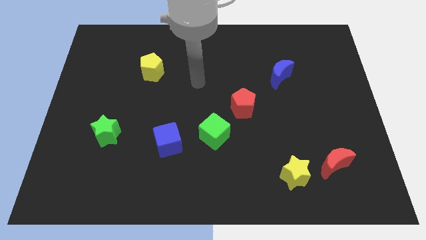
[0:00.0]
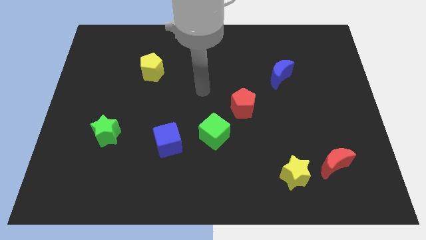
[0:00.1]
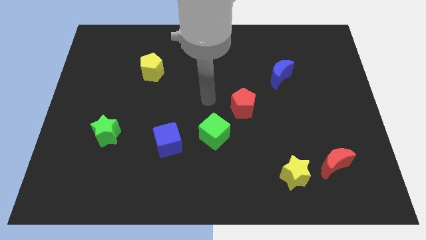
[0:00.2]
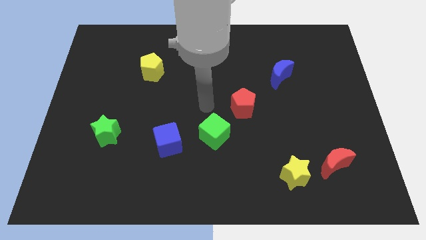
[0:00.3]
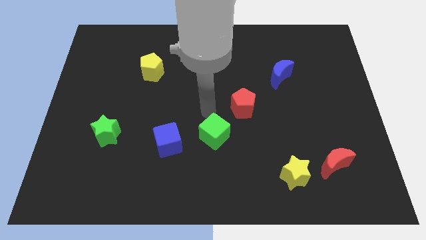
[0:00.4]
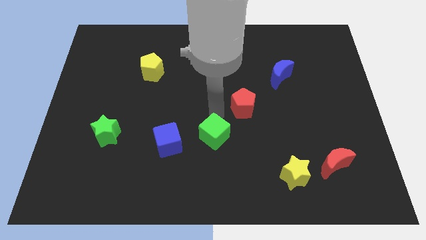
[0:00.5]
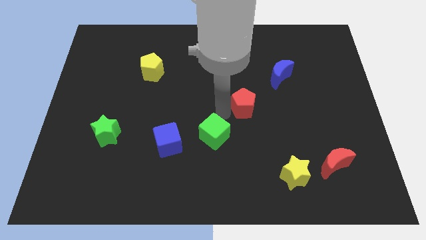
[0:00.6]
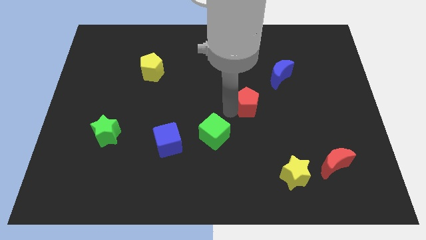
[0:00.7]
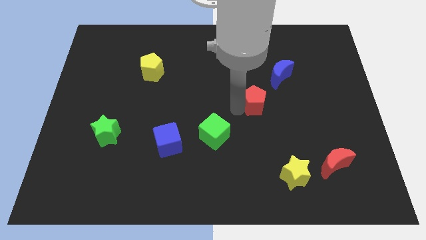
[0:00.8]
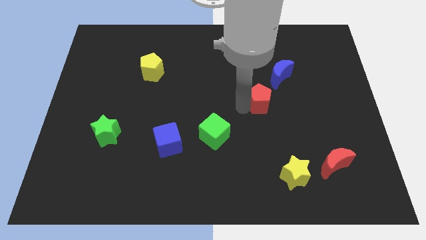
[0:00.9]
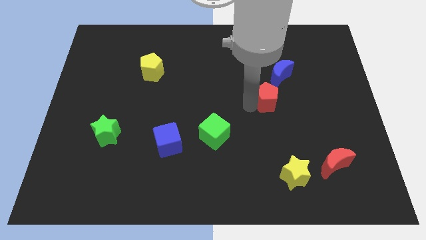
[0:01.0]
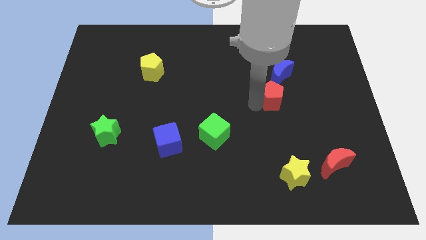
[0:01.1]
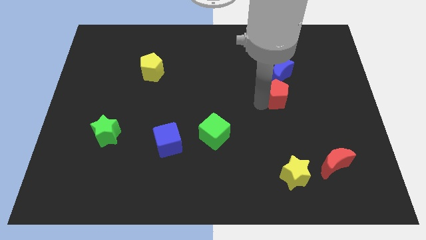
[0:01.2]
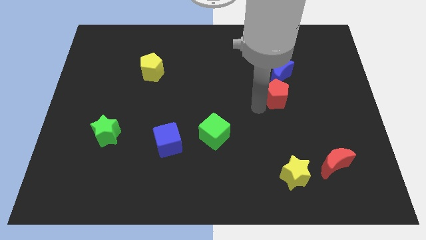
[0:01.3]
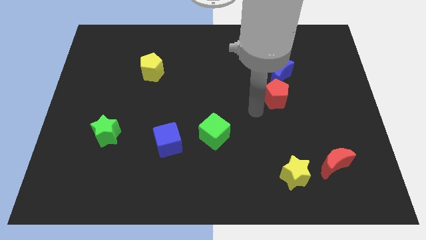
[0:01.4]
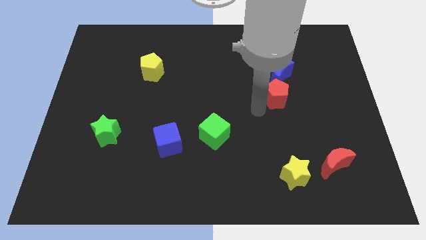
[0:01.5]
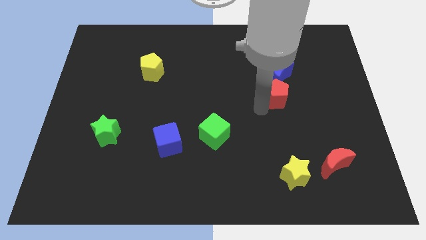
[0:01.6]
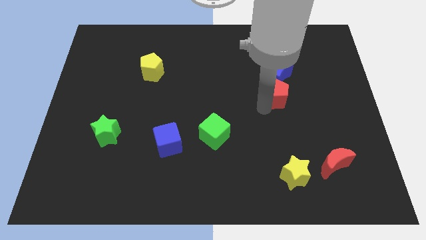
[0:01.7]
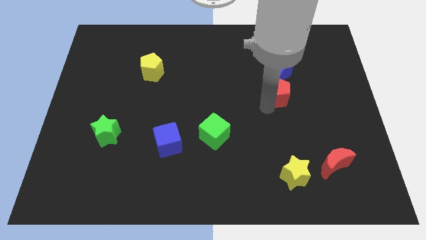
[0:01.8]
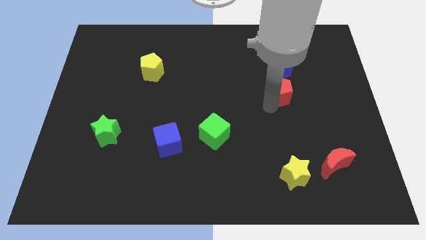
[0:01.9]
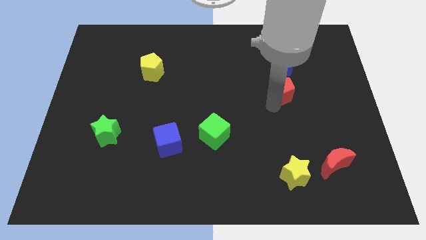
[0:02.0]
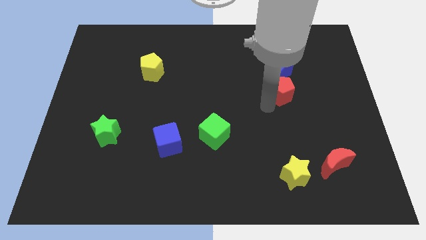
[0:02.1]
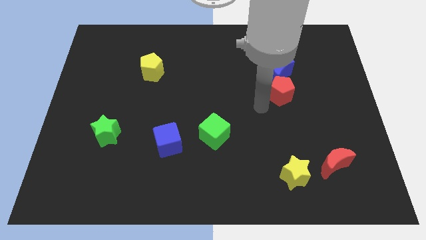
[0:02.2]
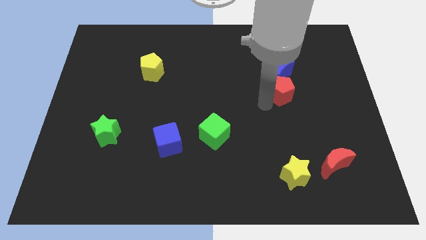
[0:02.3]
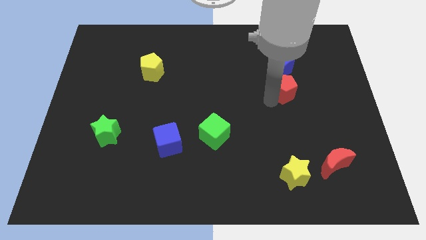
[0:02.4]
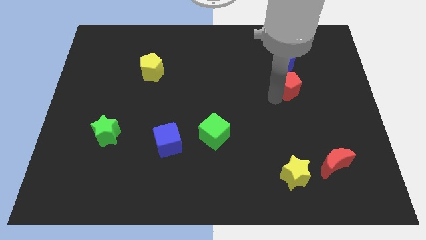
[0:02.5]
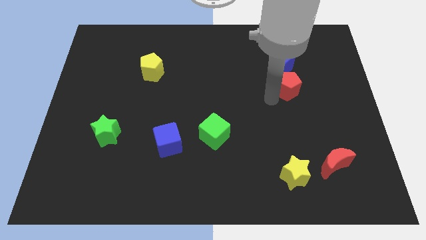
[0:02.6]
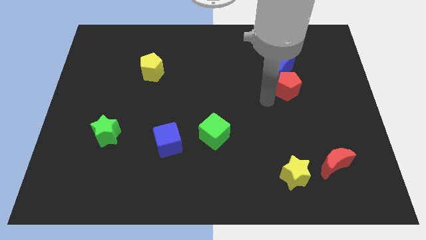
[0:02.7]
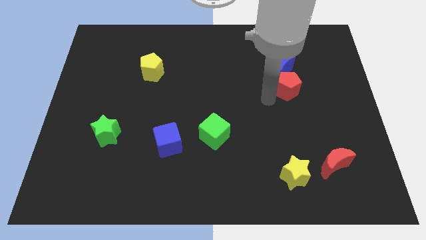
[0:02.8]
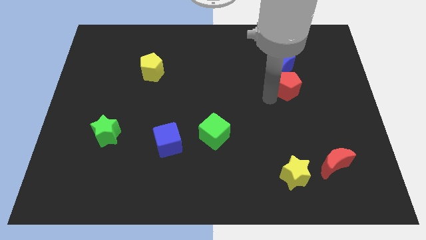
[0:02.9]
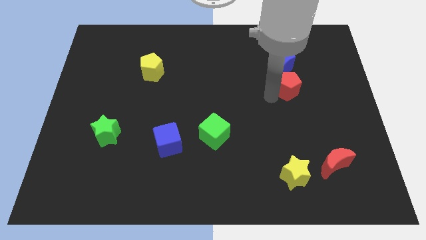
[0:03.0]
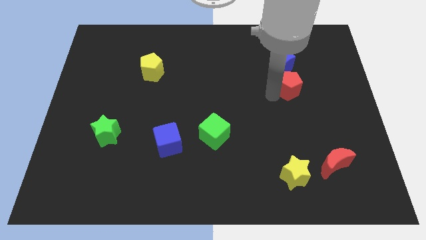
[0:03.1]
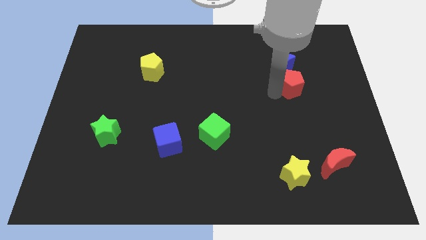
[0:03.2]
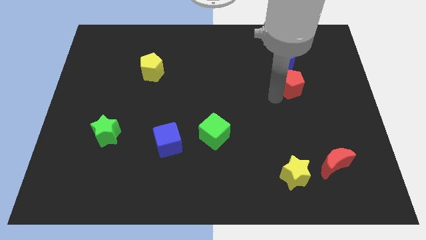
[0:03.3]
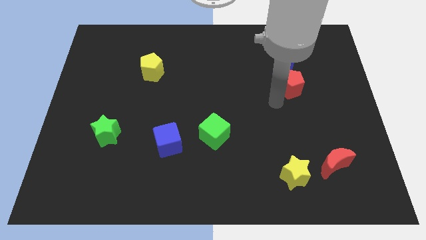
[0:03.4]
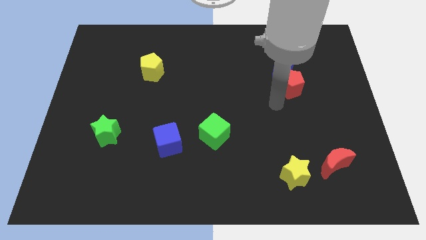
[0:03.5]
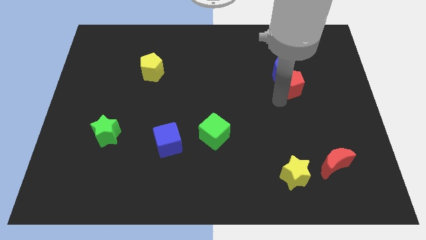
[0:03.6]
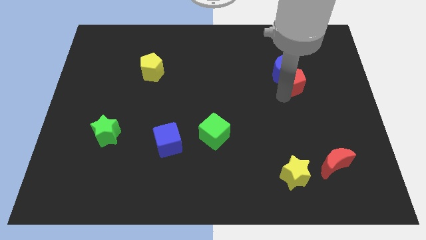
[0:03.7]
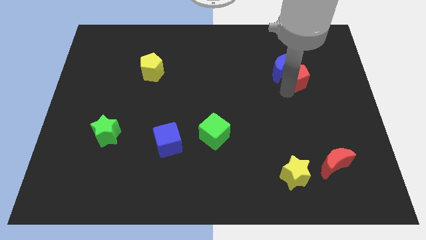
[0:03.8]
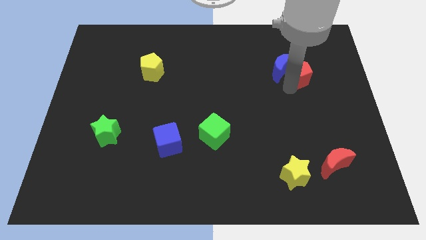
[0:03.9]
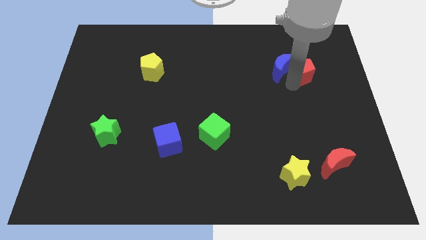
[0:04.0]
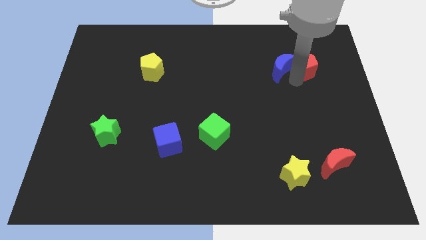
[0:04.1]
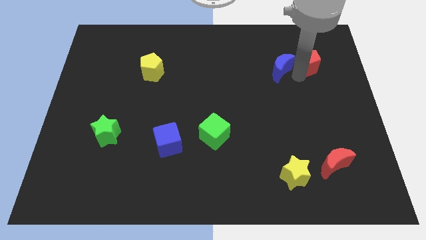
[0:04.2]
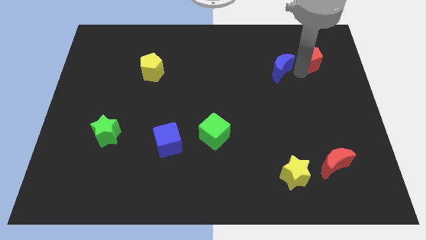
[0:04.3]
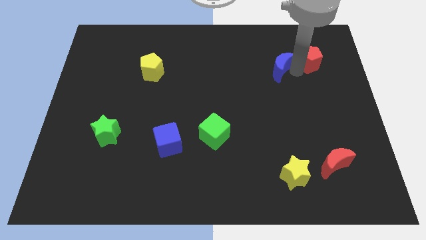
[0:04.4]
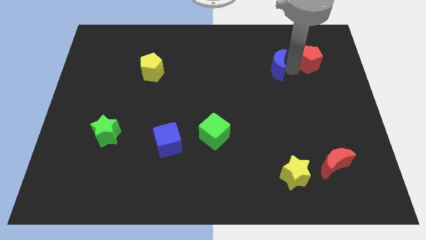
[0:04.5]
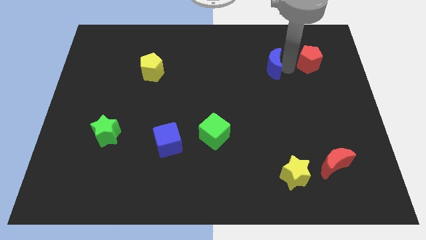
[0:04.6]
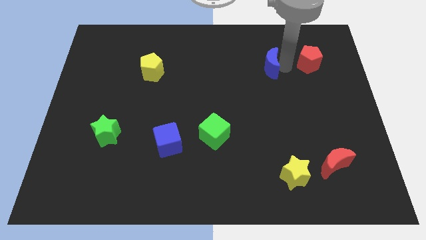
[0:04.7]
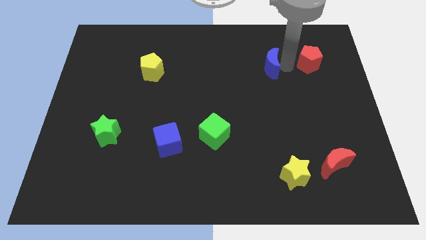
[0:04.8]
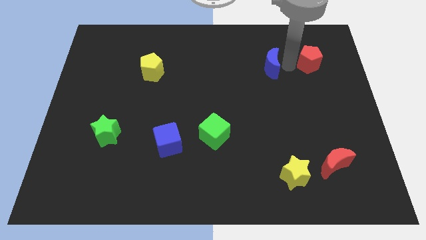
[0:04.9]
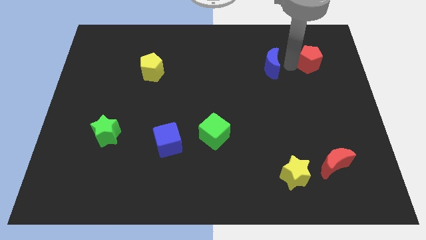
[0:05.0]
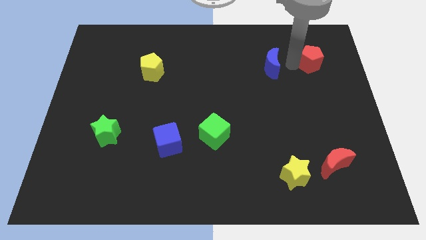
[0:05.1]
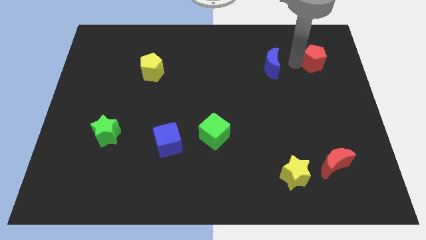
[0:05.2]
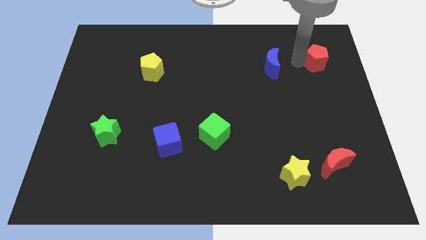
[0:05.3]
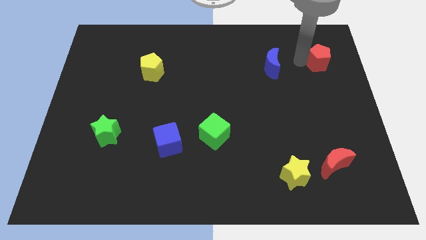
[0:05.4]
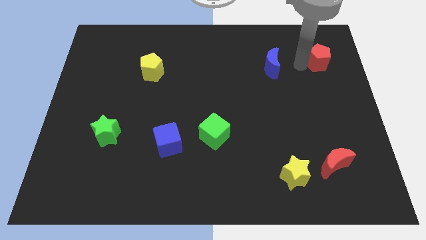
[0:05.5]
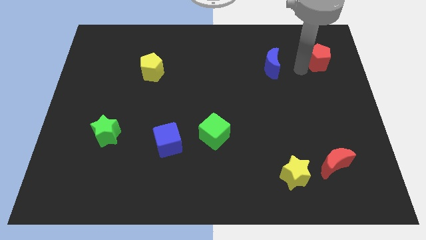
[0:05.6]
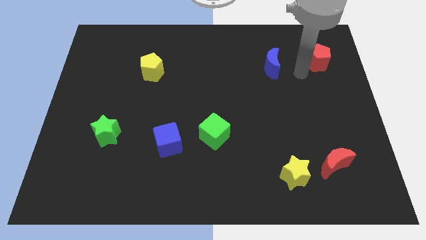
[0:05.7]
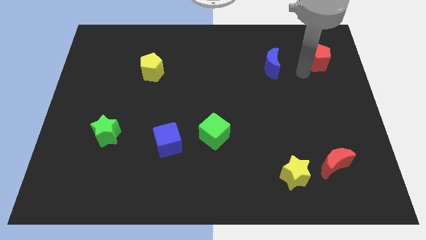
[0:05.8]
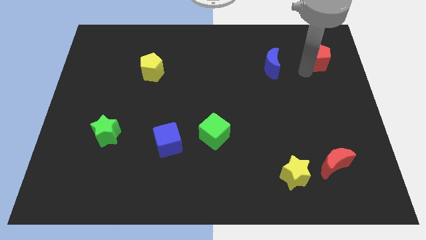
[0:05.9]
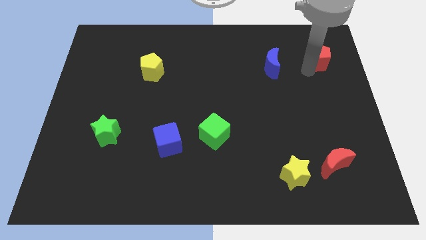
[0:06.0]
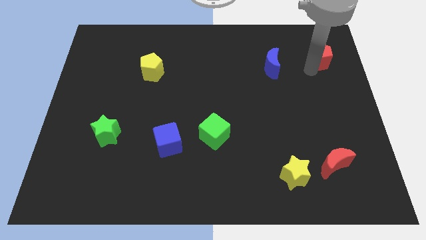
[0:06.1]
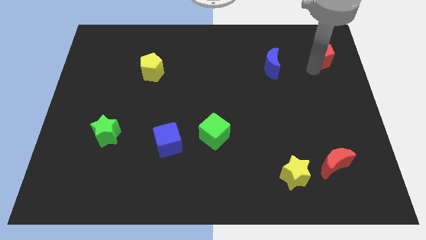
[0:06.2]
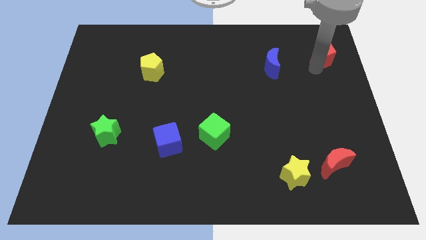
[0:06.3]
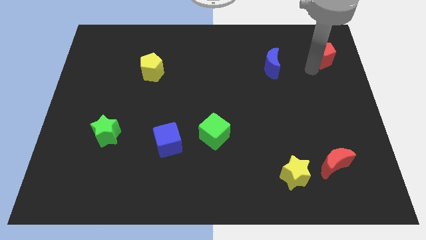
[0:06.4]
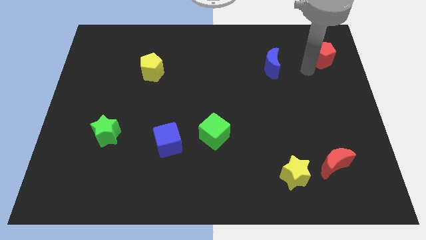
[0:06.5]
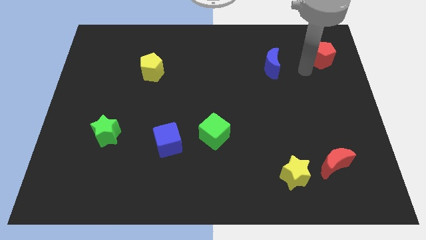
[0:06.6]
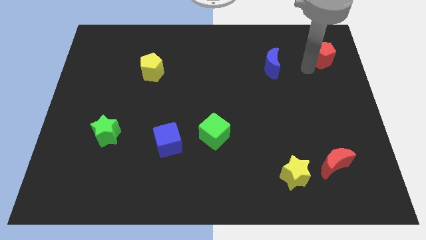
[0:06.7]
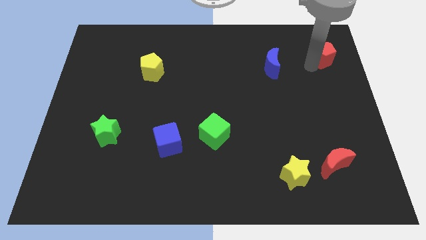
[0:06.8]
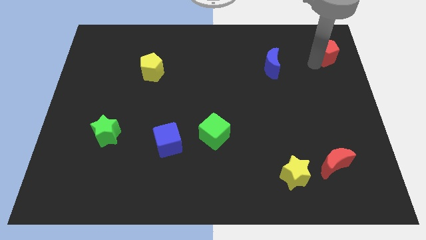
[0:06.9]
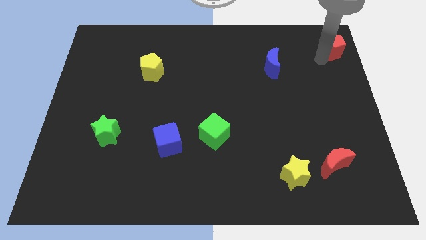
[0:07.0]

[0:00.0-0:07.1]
move the red pentagon to the top right
